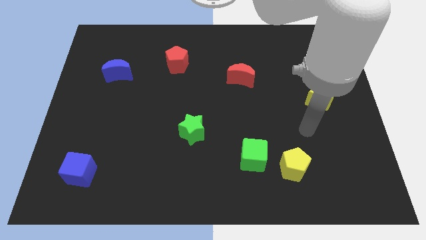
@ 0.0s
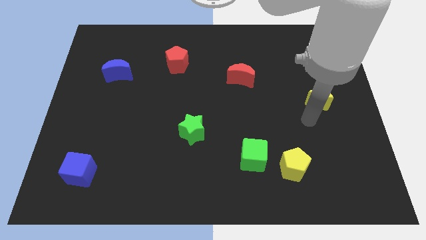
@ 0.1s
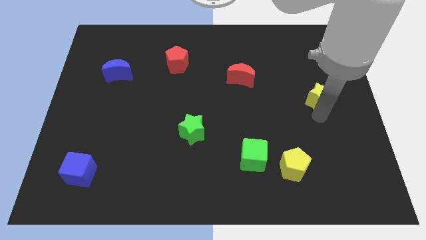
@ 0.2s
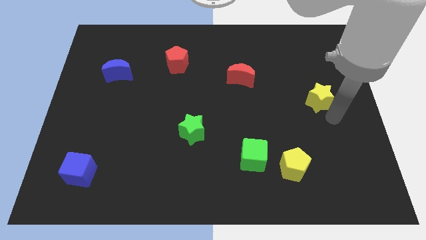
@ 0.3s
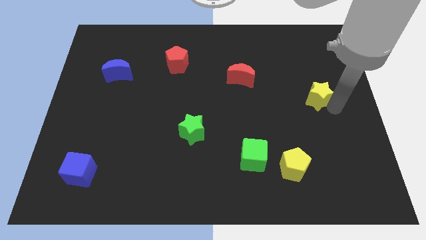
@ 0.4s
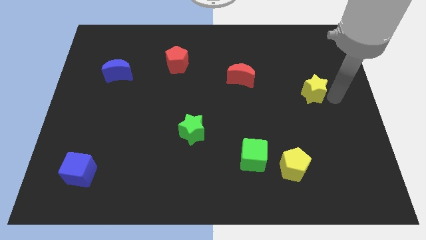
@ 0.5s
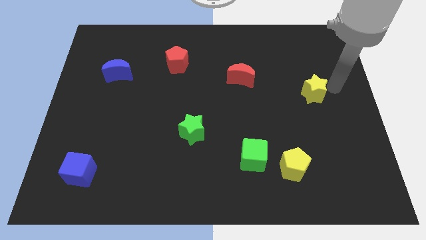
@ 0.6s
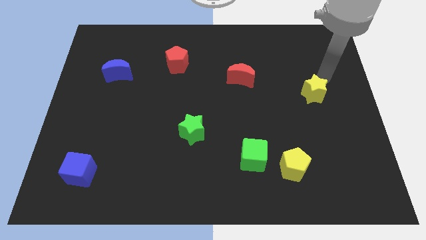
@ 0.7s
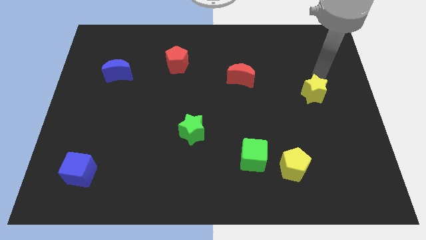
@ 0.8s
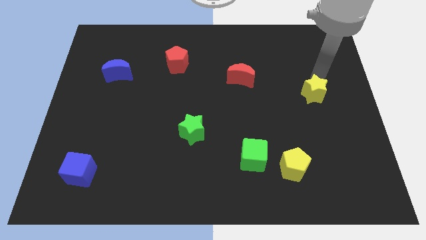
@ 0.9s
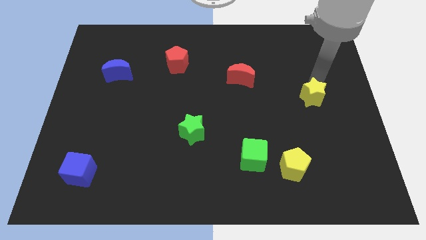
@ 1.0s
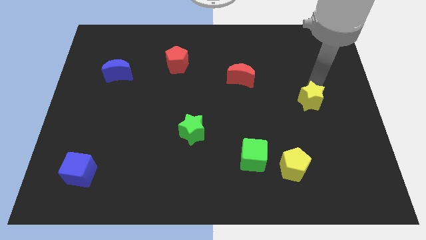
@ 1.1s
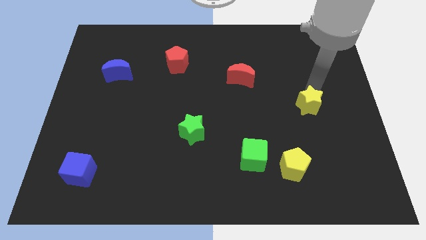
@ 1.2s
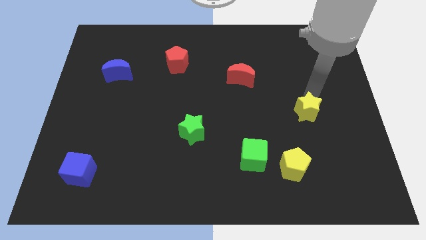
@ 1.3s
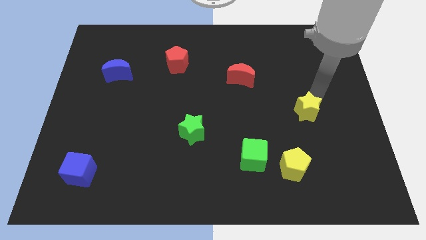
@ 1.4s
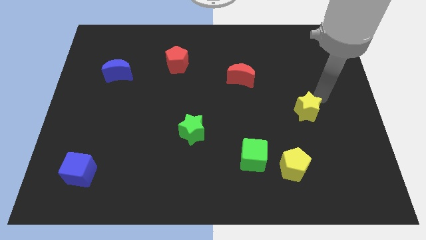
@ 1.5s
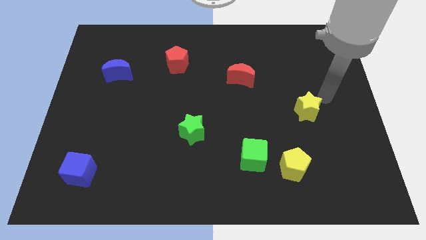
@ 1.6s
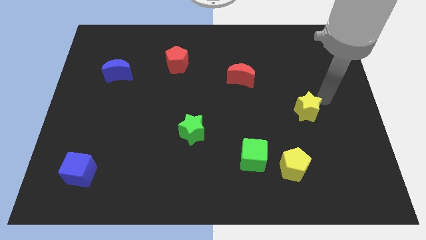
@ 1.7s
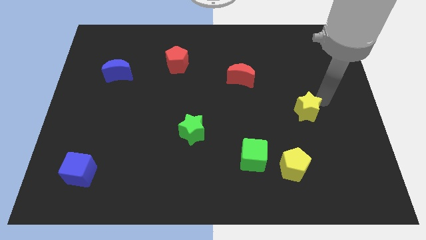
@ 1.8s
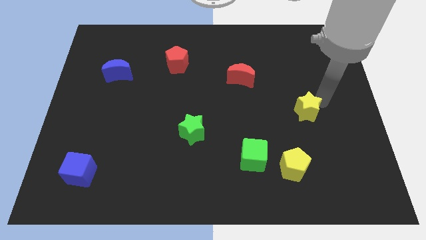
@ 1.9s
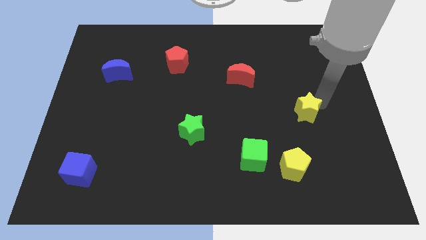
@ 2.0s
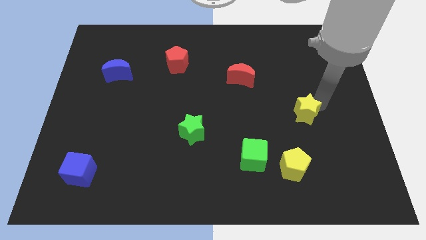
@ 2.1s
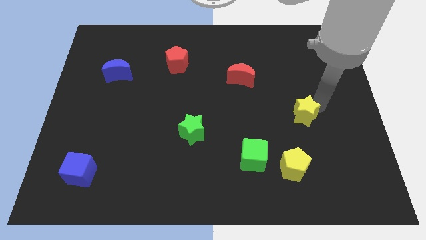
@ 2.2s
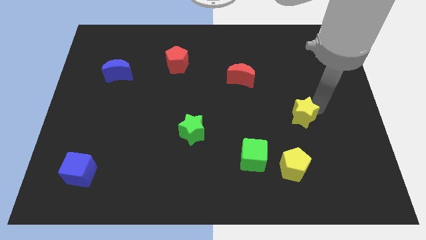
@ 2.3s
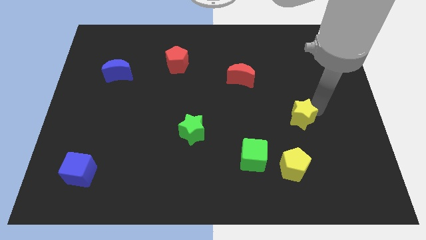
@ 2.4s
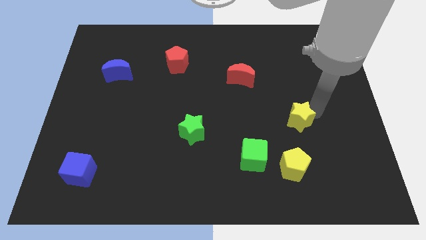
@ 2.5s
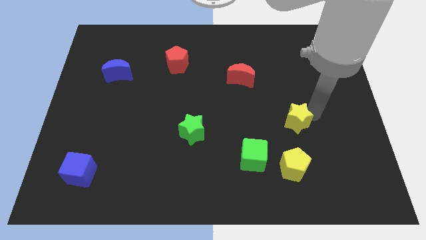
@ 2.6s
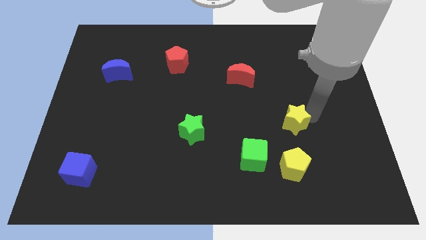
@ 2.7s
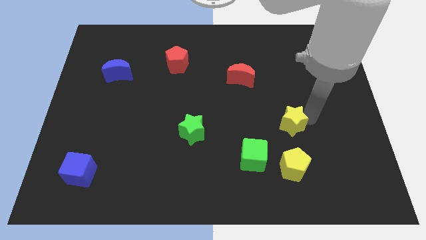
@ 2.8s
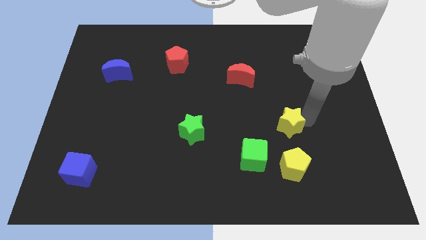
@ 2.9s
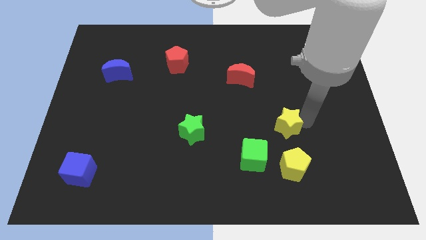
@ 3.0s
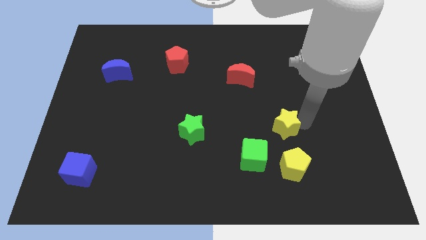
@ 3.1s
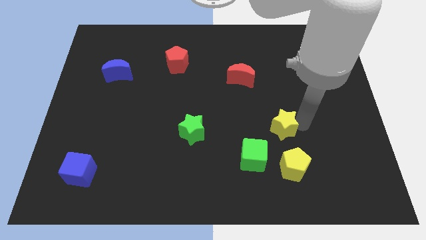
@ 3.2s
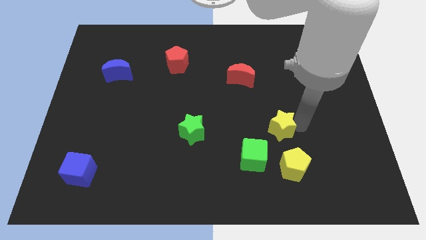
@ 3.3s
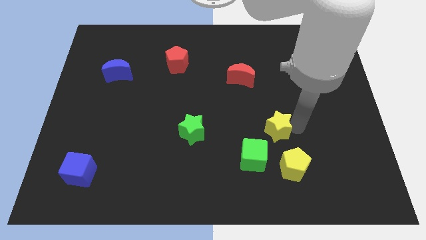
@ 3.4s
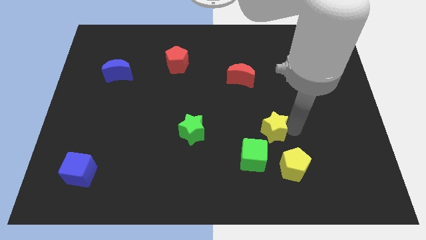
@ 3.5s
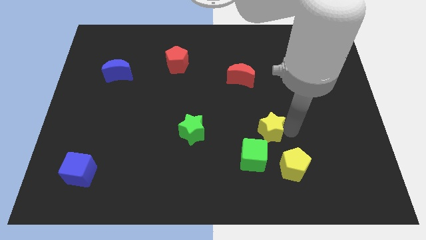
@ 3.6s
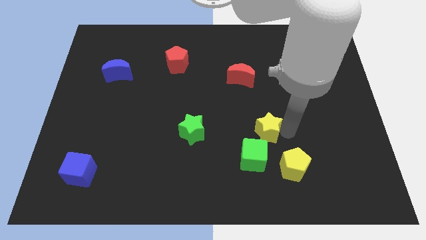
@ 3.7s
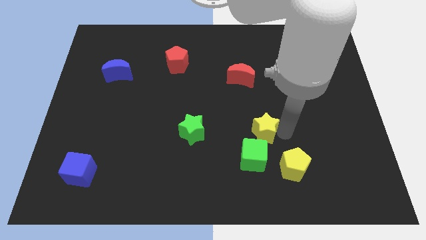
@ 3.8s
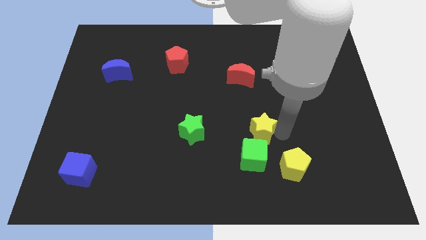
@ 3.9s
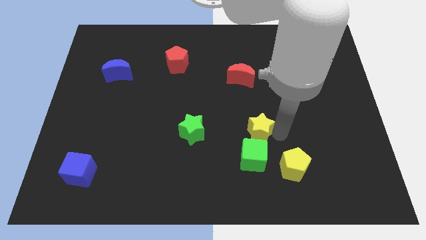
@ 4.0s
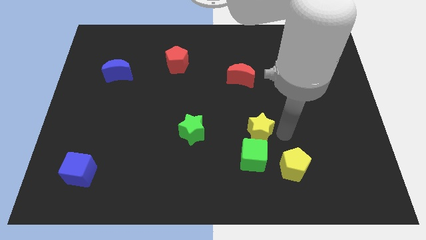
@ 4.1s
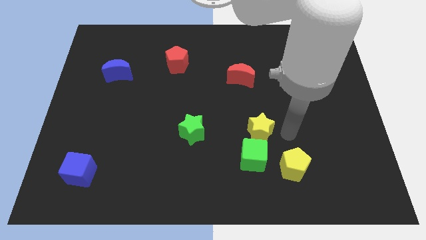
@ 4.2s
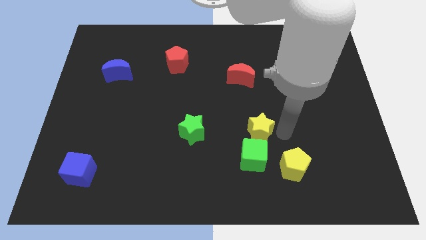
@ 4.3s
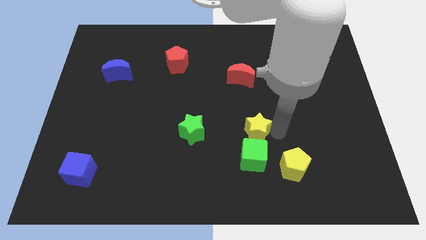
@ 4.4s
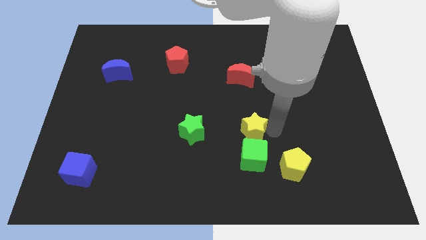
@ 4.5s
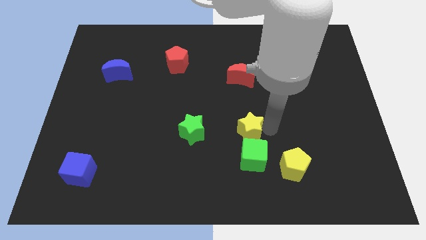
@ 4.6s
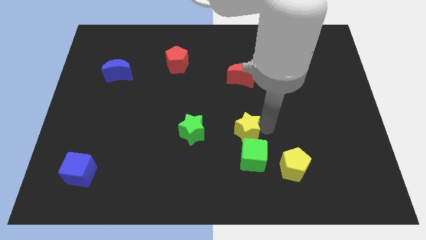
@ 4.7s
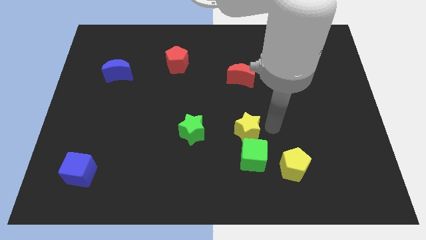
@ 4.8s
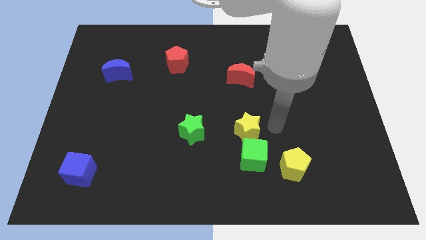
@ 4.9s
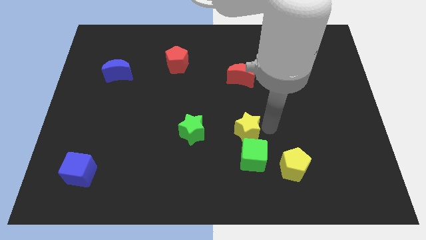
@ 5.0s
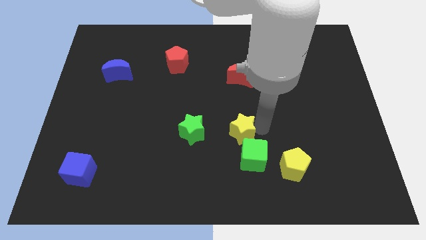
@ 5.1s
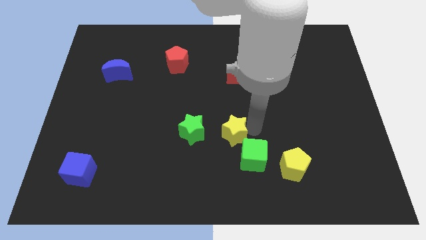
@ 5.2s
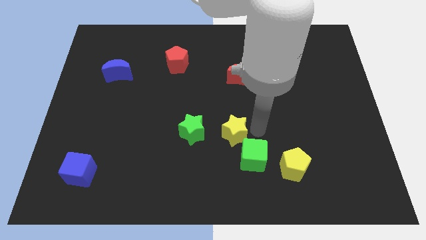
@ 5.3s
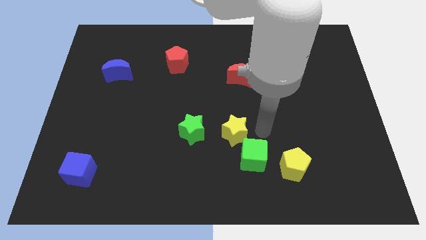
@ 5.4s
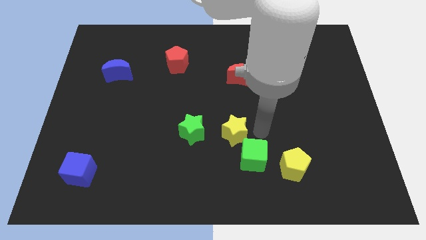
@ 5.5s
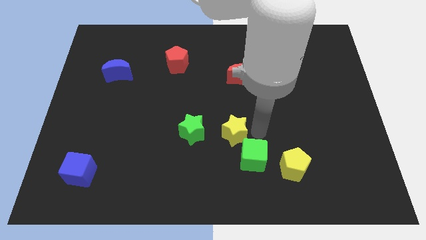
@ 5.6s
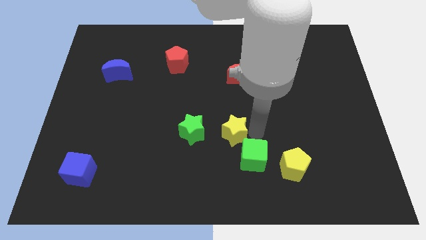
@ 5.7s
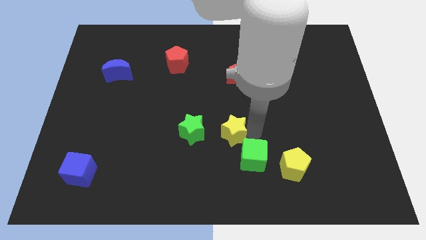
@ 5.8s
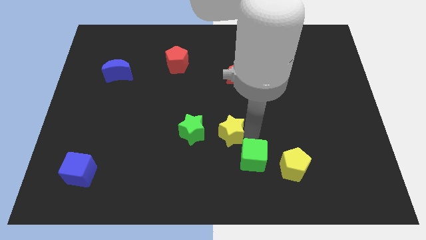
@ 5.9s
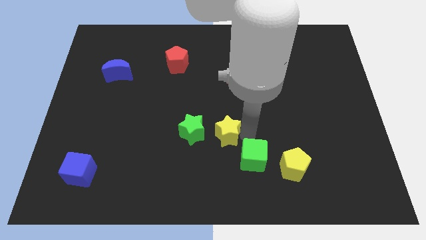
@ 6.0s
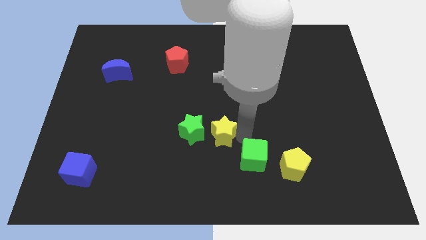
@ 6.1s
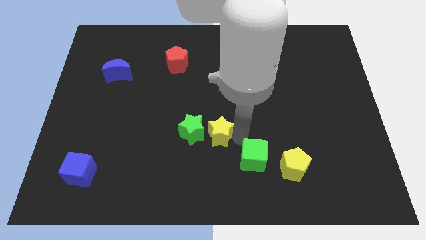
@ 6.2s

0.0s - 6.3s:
slide the yellow star close to the green star
